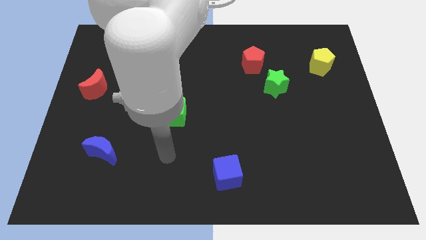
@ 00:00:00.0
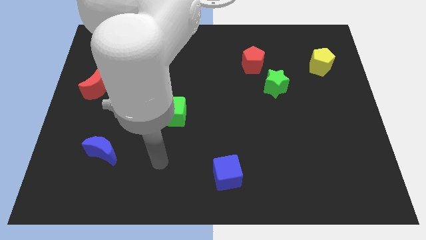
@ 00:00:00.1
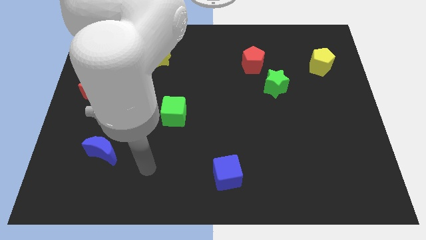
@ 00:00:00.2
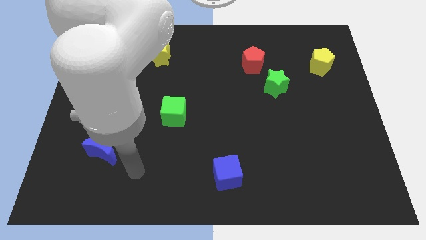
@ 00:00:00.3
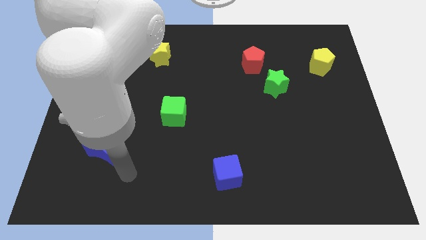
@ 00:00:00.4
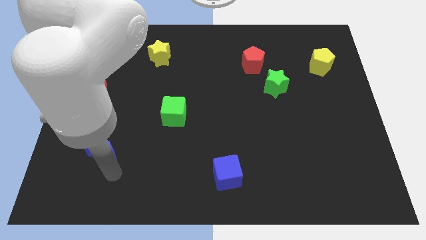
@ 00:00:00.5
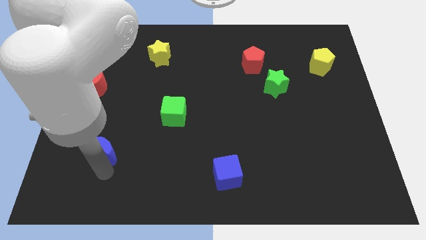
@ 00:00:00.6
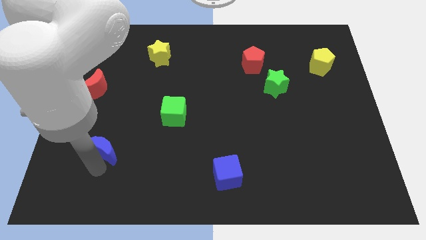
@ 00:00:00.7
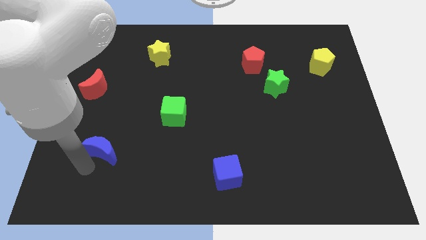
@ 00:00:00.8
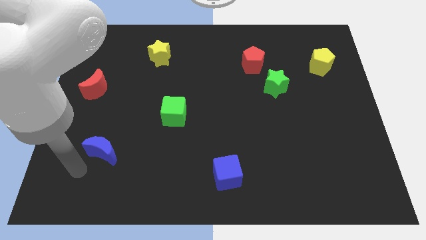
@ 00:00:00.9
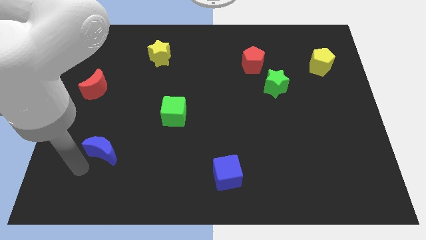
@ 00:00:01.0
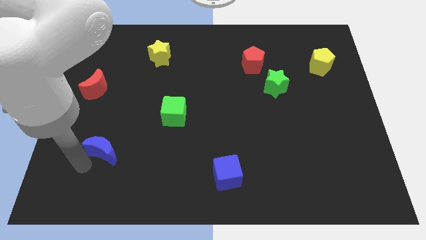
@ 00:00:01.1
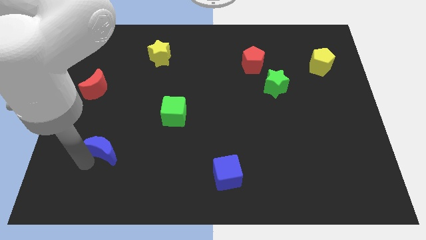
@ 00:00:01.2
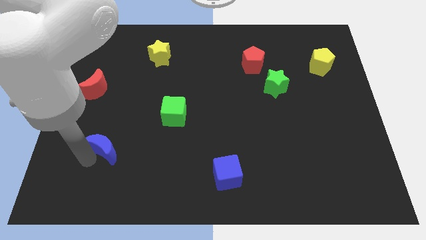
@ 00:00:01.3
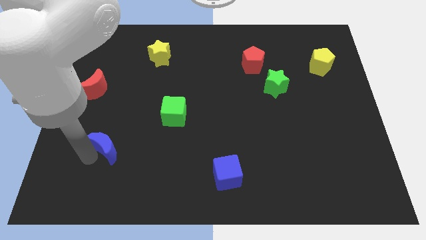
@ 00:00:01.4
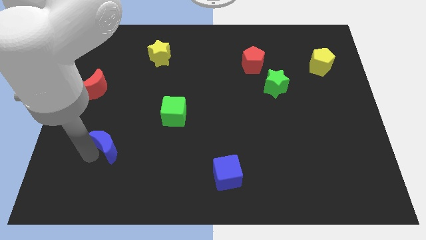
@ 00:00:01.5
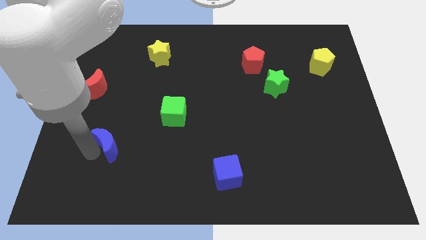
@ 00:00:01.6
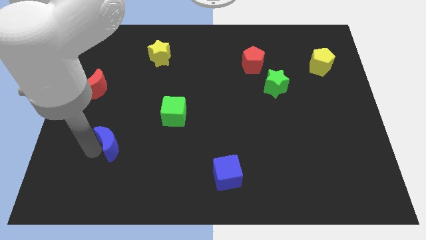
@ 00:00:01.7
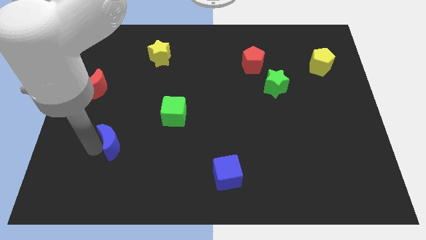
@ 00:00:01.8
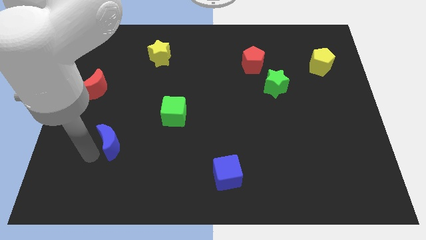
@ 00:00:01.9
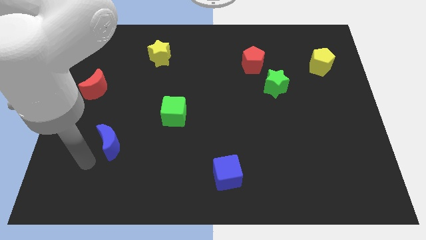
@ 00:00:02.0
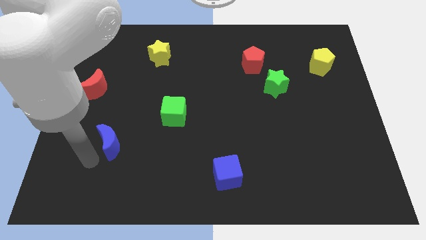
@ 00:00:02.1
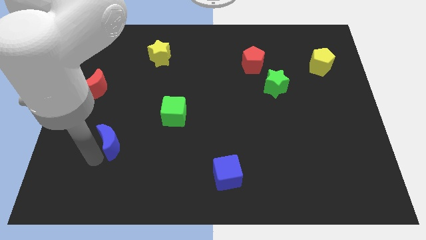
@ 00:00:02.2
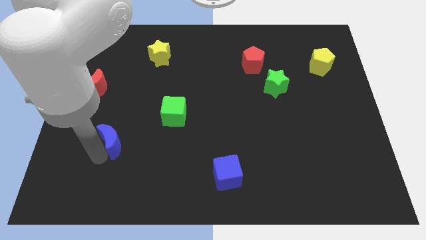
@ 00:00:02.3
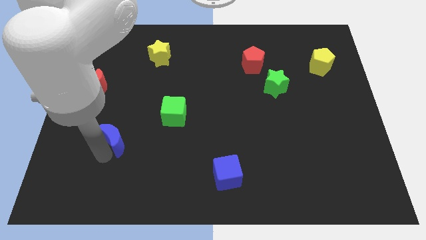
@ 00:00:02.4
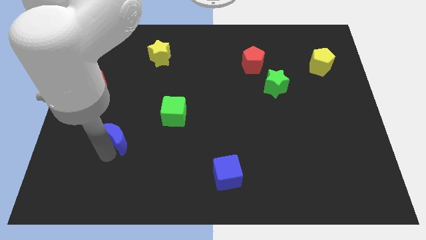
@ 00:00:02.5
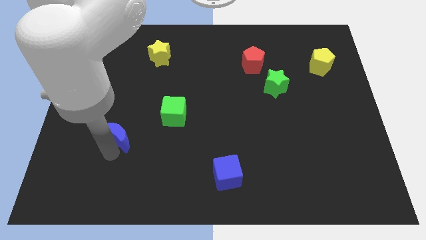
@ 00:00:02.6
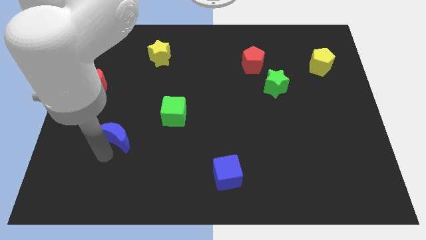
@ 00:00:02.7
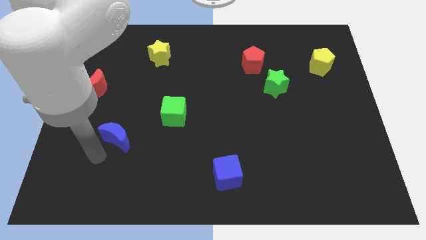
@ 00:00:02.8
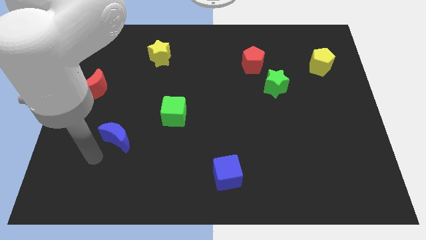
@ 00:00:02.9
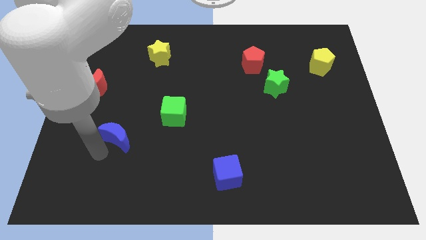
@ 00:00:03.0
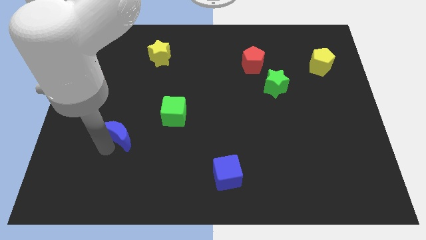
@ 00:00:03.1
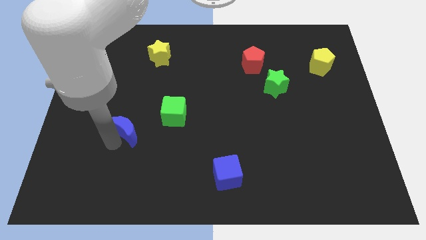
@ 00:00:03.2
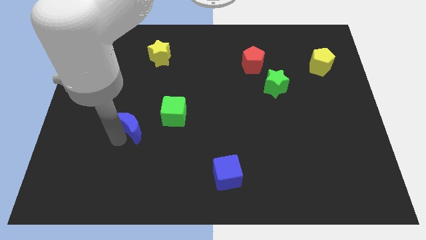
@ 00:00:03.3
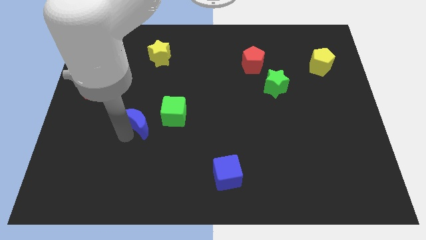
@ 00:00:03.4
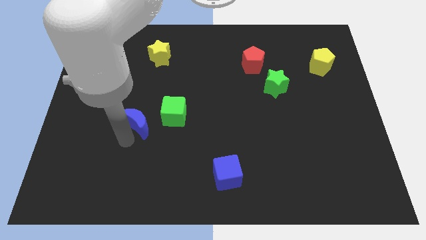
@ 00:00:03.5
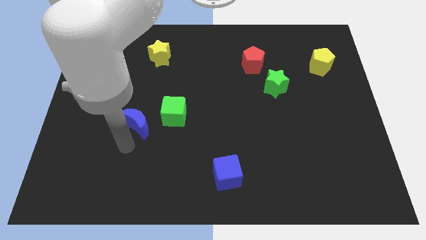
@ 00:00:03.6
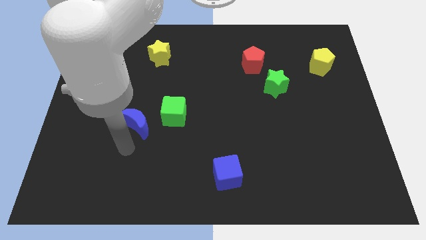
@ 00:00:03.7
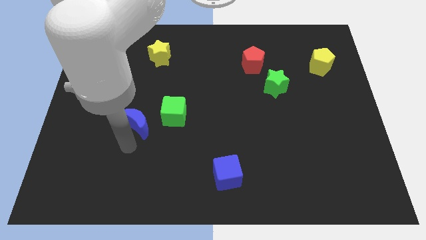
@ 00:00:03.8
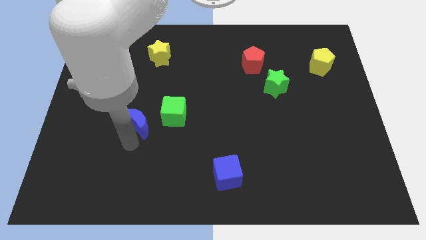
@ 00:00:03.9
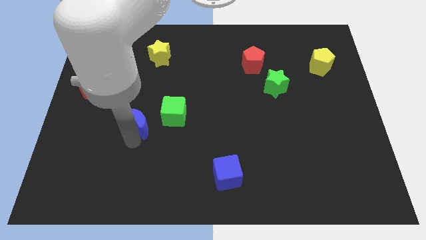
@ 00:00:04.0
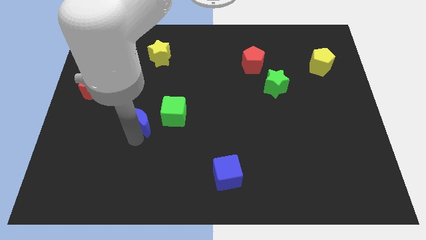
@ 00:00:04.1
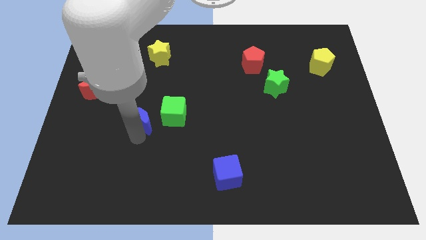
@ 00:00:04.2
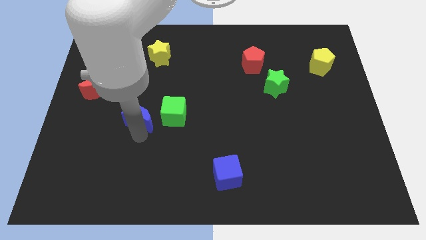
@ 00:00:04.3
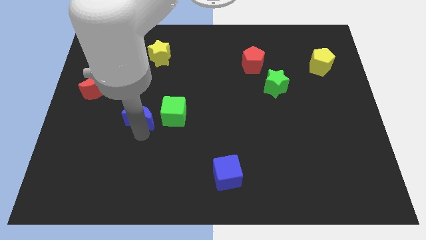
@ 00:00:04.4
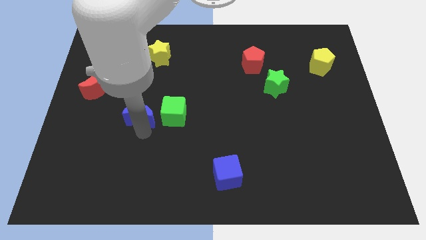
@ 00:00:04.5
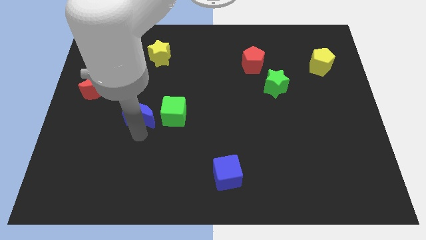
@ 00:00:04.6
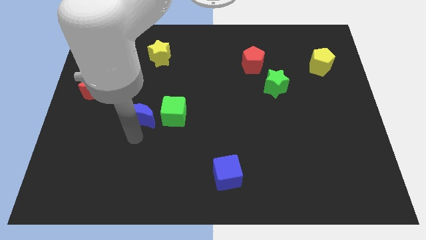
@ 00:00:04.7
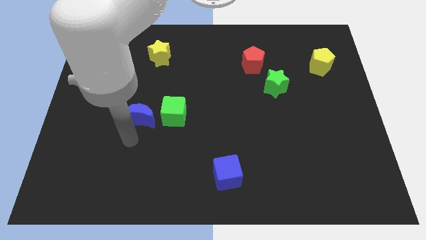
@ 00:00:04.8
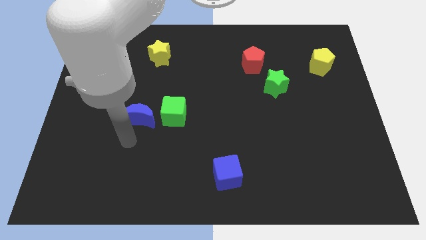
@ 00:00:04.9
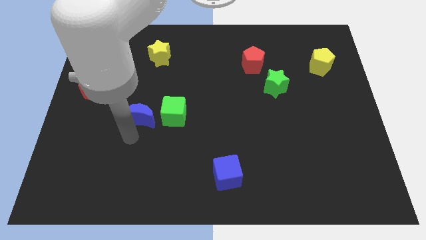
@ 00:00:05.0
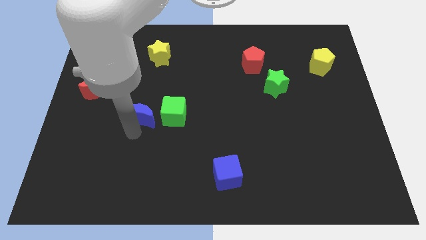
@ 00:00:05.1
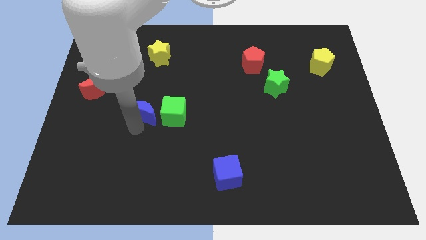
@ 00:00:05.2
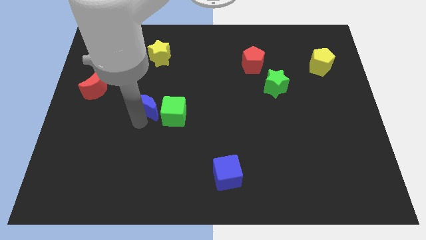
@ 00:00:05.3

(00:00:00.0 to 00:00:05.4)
push the blue moon diagonally up and to the left of the green cube
